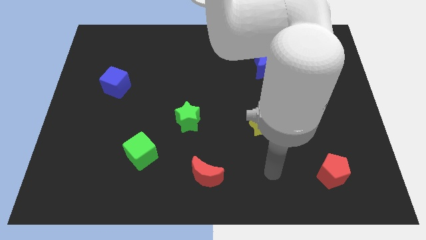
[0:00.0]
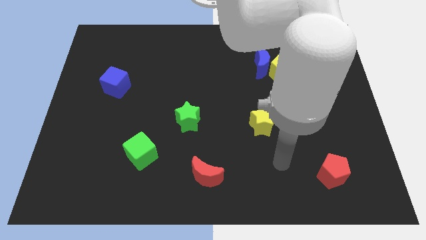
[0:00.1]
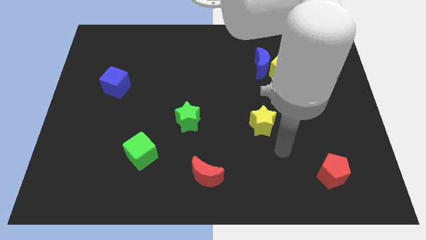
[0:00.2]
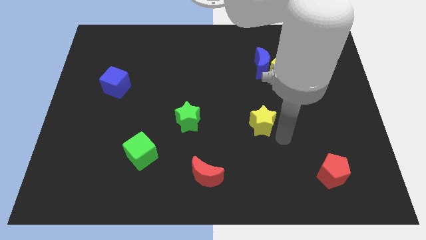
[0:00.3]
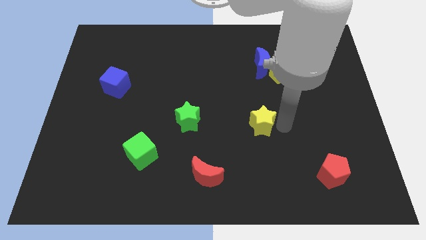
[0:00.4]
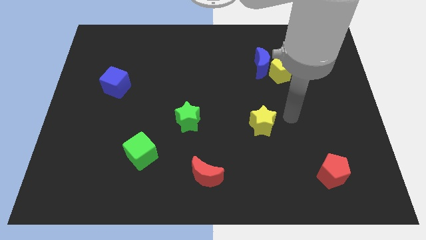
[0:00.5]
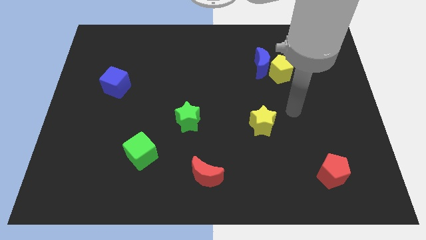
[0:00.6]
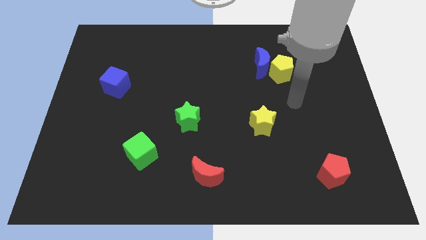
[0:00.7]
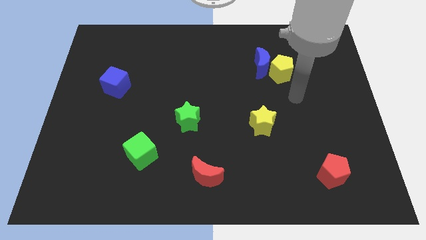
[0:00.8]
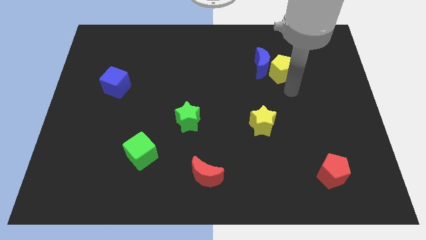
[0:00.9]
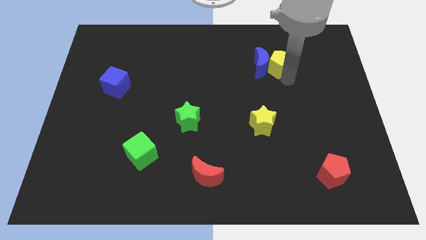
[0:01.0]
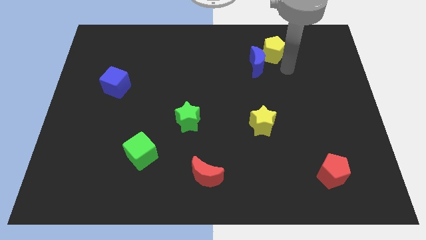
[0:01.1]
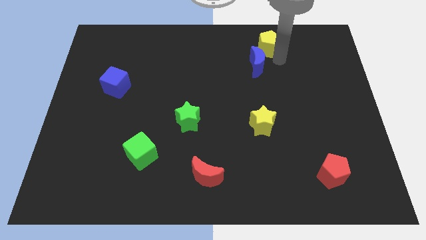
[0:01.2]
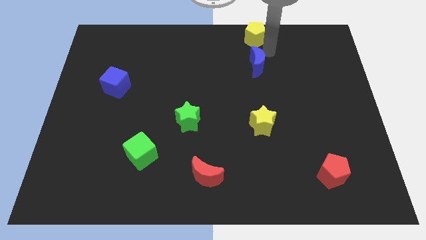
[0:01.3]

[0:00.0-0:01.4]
pull the blue moon apart from the yellow pentagon

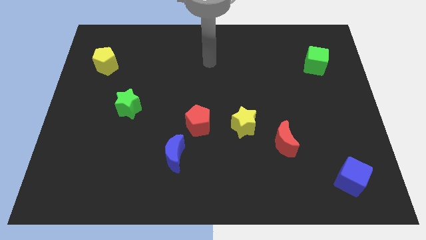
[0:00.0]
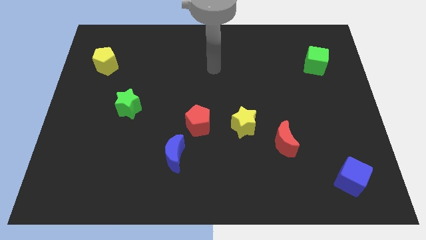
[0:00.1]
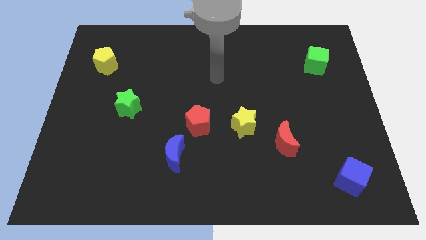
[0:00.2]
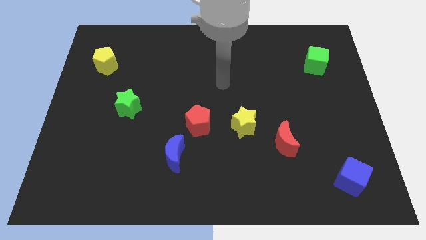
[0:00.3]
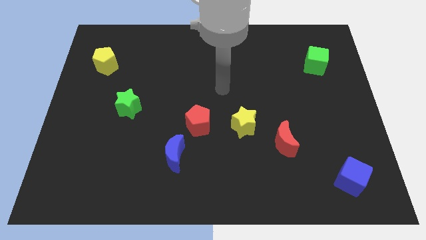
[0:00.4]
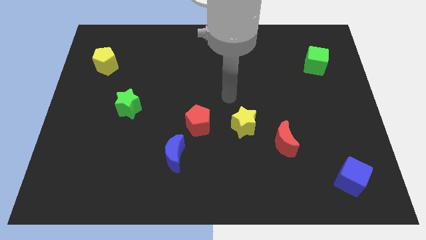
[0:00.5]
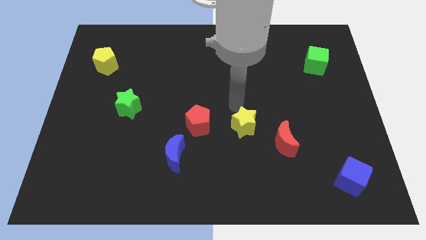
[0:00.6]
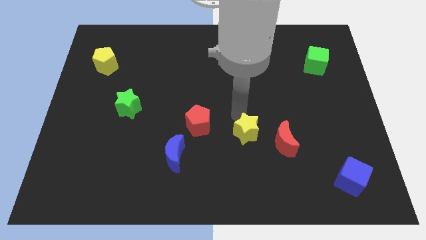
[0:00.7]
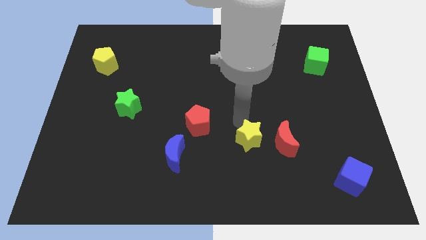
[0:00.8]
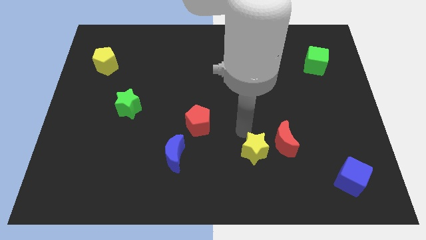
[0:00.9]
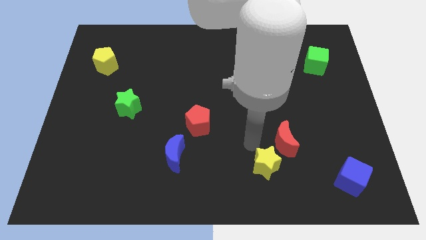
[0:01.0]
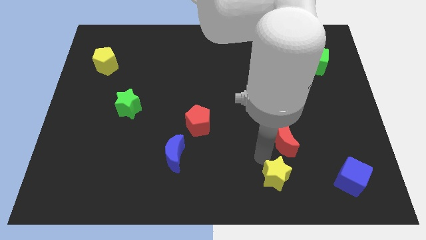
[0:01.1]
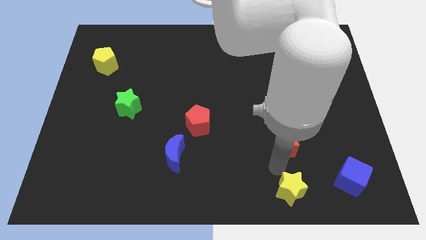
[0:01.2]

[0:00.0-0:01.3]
separate the red moon from the yellow star

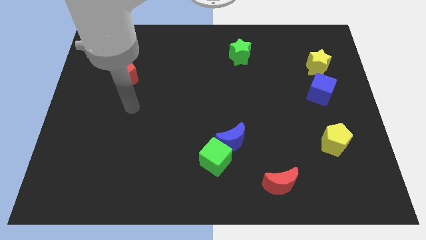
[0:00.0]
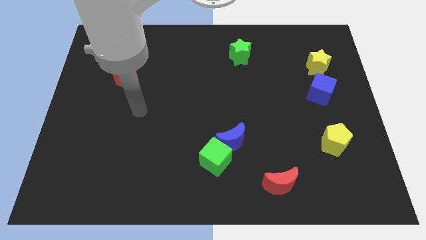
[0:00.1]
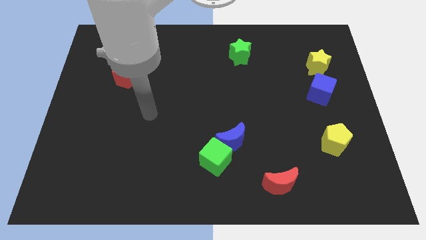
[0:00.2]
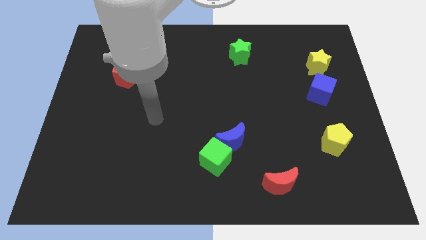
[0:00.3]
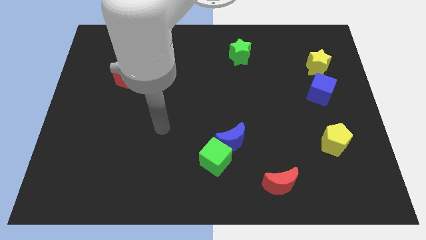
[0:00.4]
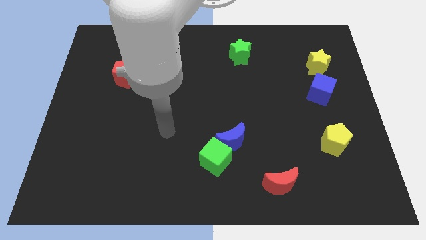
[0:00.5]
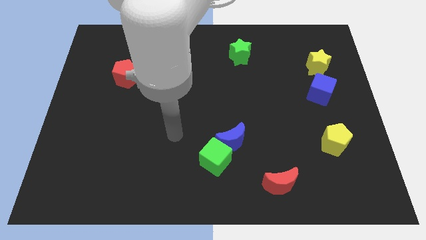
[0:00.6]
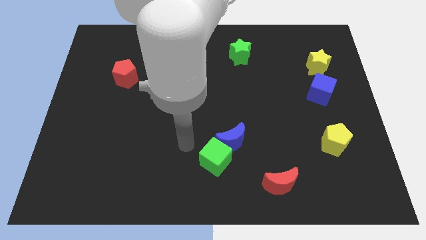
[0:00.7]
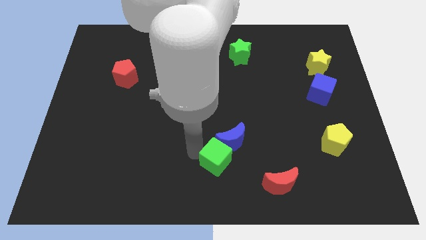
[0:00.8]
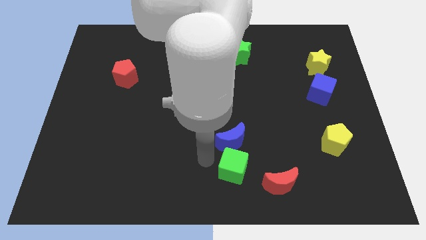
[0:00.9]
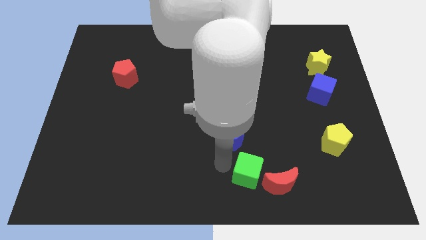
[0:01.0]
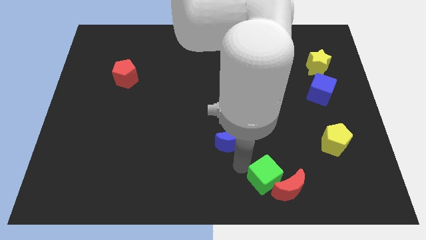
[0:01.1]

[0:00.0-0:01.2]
separate the blue moon from the green cube

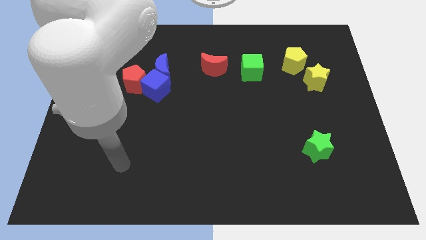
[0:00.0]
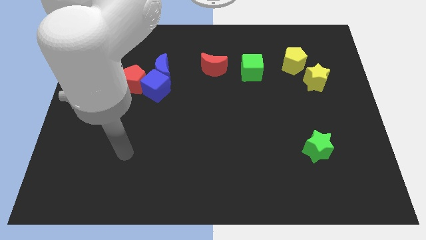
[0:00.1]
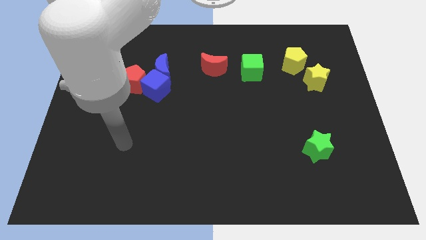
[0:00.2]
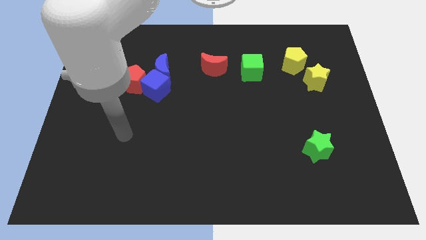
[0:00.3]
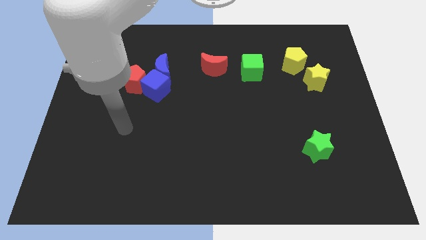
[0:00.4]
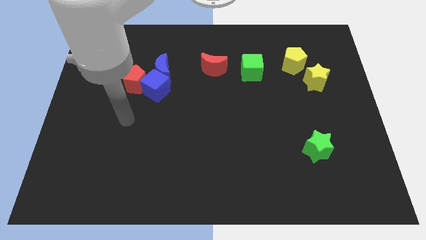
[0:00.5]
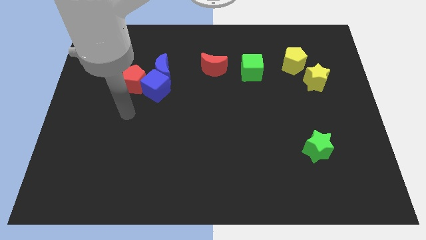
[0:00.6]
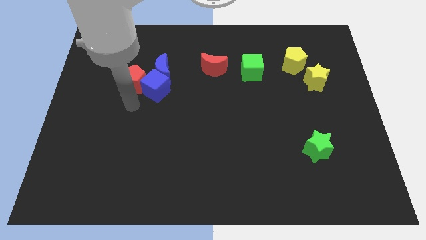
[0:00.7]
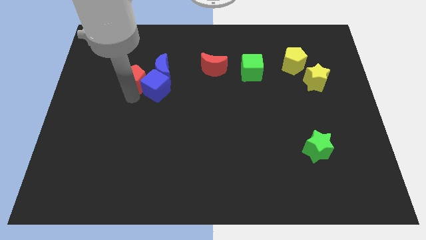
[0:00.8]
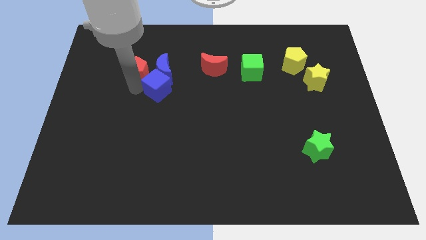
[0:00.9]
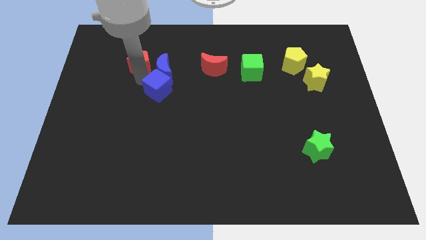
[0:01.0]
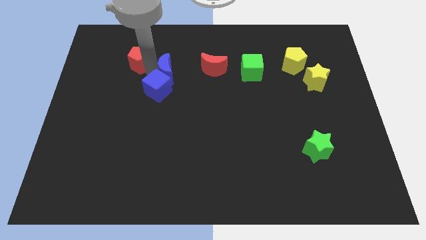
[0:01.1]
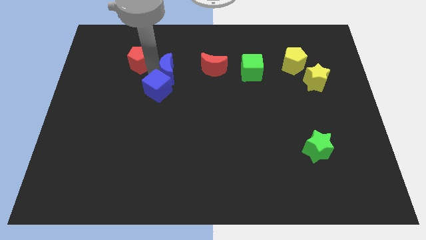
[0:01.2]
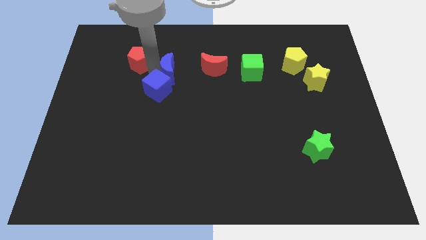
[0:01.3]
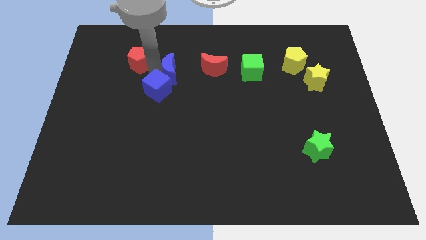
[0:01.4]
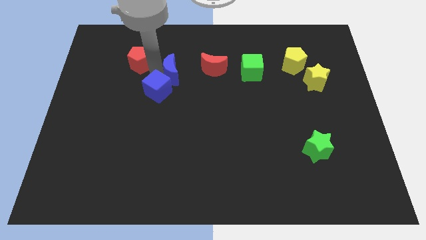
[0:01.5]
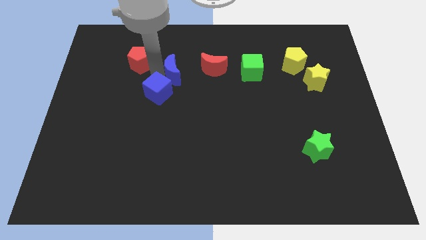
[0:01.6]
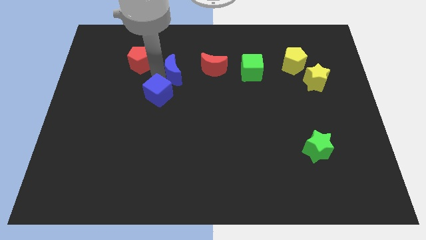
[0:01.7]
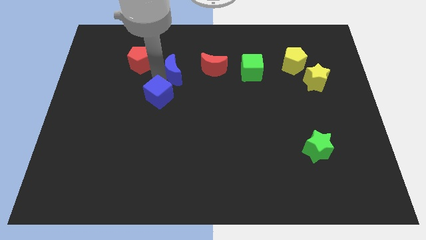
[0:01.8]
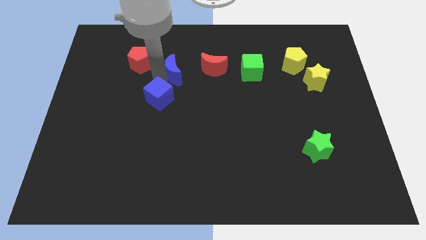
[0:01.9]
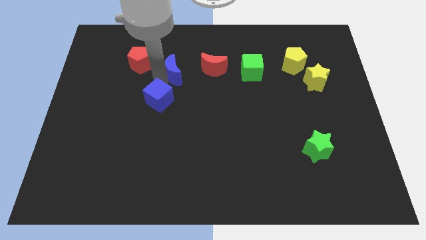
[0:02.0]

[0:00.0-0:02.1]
separate the blue cube from the blue moon and red pentagon

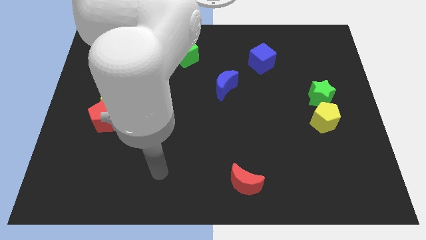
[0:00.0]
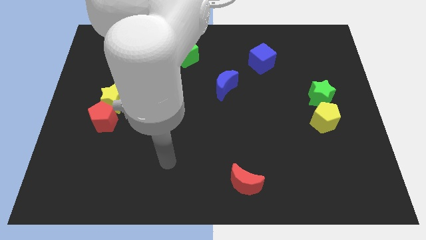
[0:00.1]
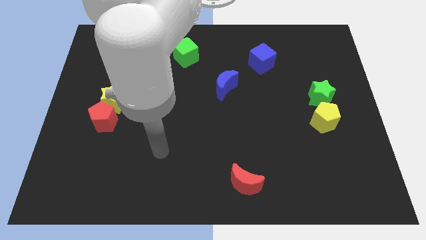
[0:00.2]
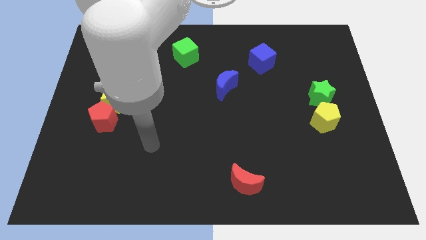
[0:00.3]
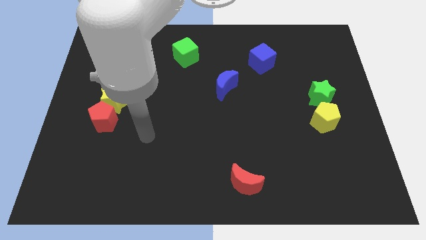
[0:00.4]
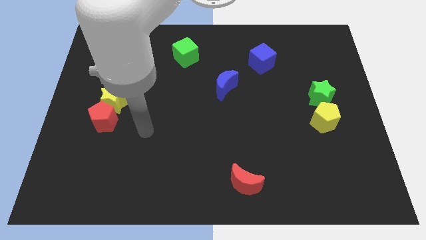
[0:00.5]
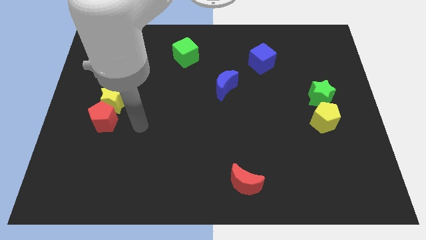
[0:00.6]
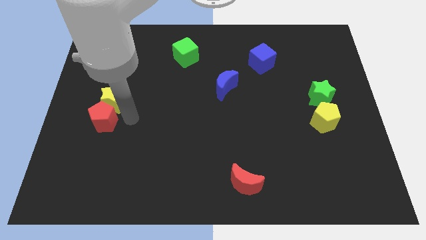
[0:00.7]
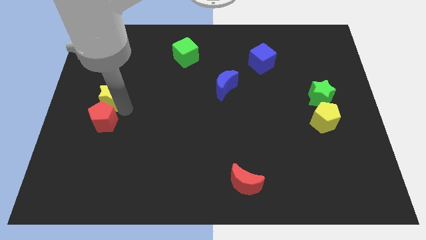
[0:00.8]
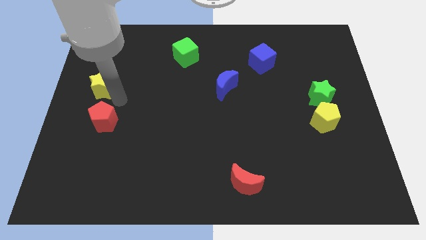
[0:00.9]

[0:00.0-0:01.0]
move the red pentagon away from the yellow star

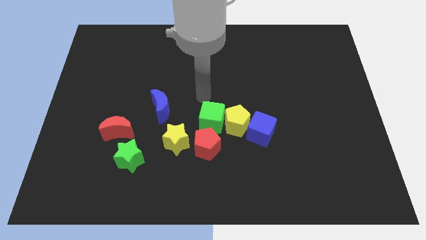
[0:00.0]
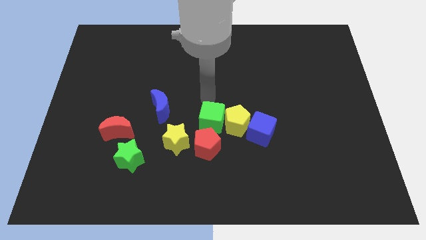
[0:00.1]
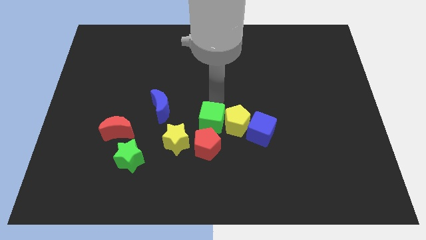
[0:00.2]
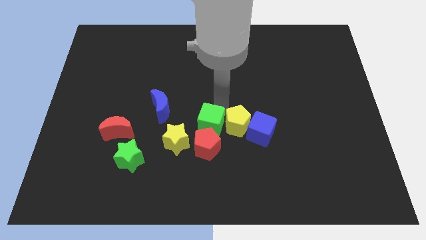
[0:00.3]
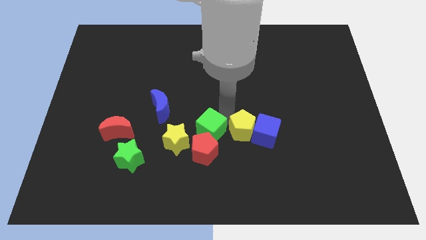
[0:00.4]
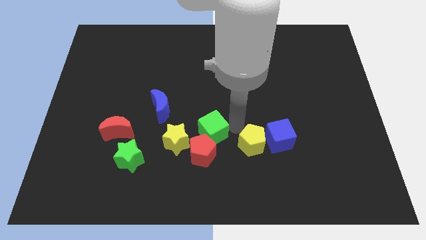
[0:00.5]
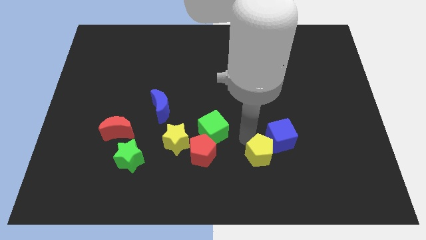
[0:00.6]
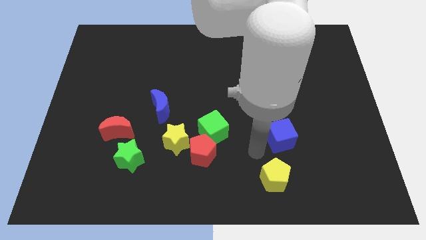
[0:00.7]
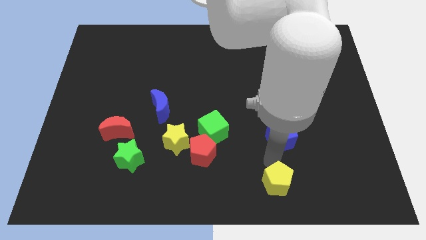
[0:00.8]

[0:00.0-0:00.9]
move the blue cube away from the yellow pentagon

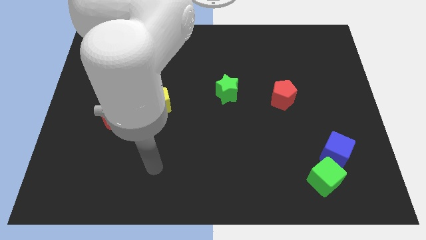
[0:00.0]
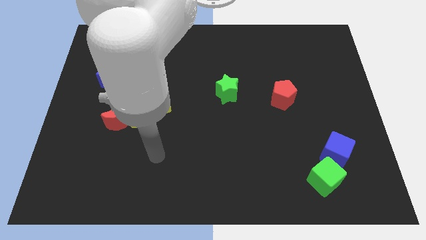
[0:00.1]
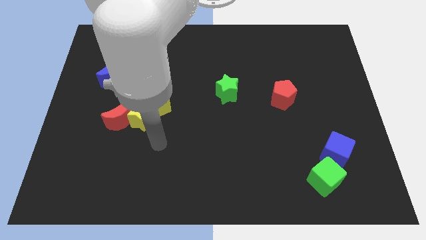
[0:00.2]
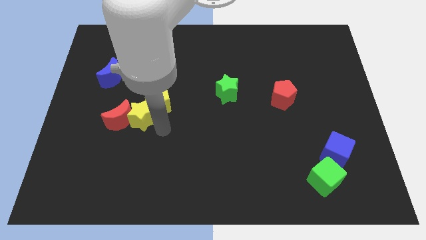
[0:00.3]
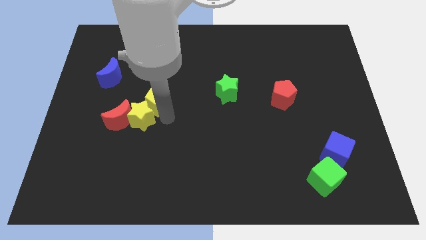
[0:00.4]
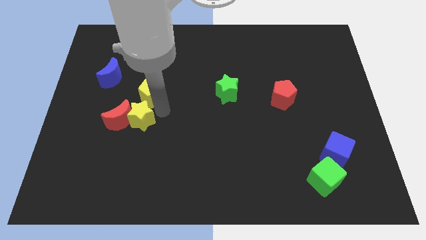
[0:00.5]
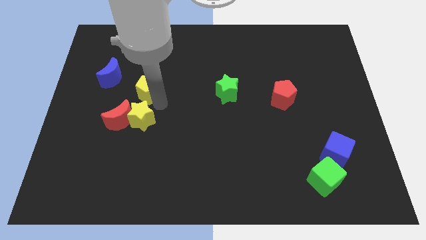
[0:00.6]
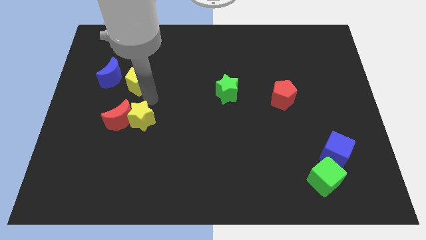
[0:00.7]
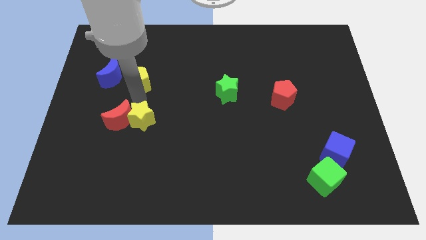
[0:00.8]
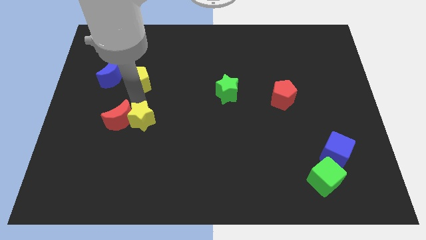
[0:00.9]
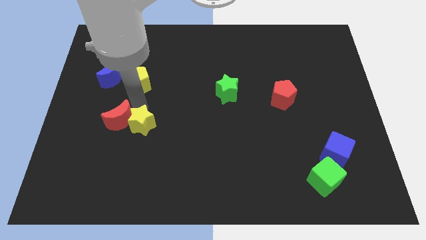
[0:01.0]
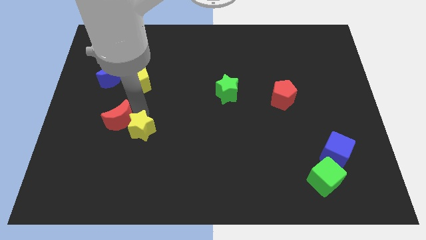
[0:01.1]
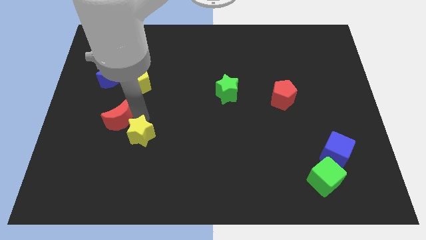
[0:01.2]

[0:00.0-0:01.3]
separate the yellow star from the red moon and yellow pentagon
